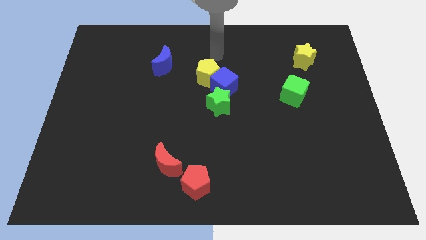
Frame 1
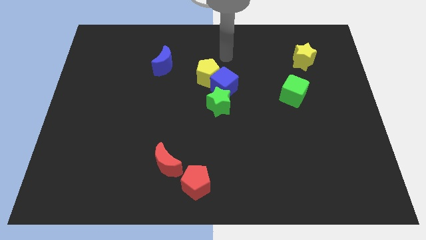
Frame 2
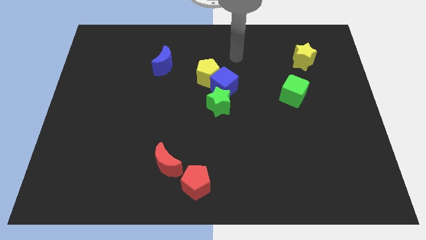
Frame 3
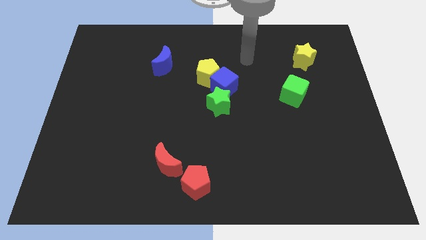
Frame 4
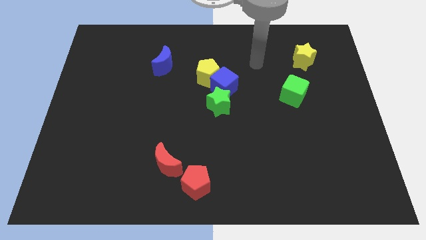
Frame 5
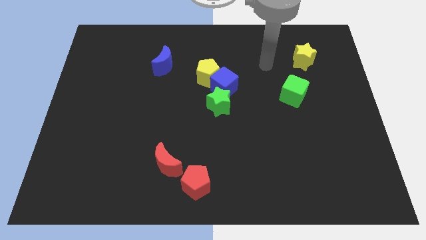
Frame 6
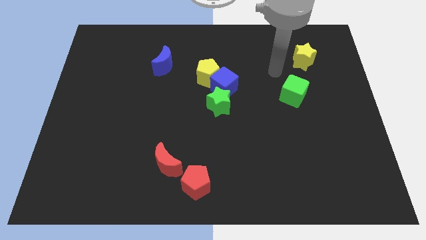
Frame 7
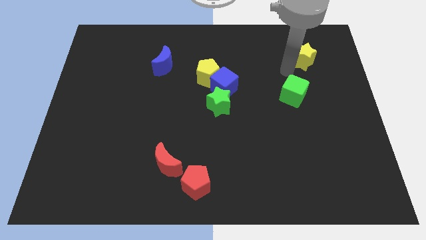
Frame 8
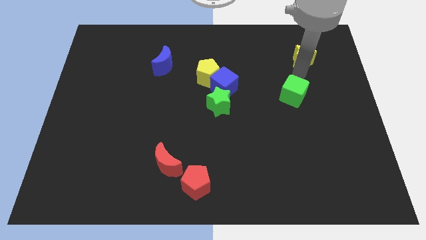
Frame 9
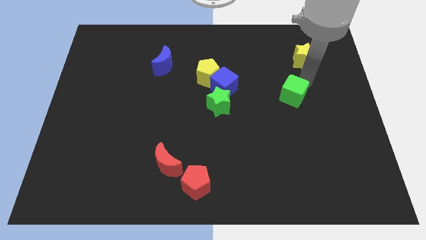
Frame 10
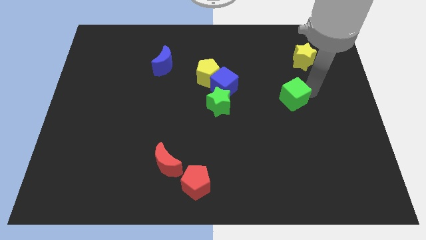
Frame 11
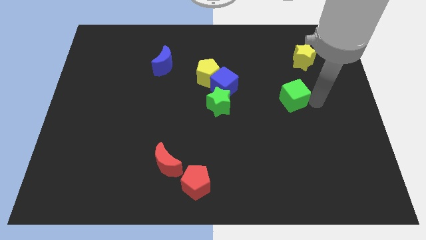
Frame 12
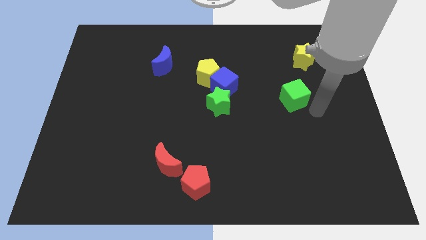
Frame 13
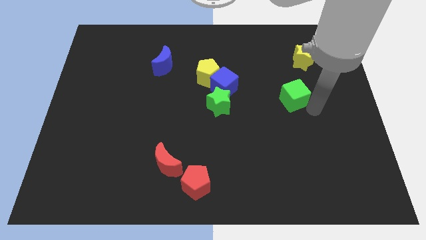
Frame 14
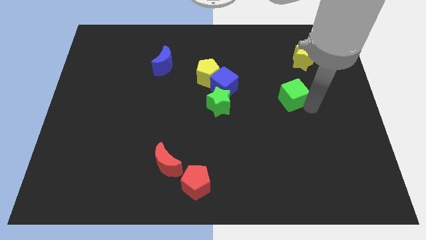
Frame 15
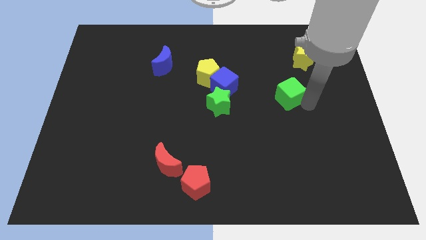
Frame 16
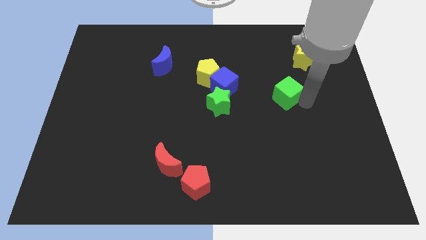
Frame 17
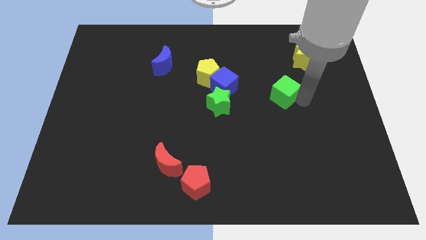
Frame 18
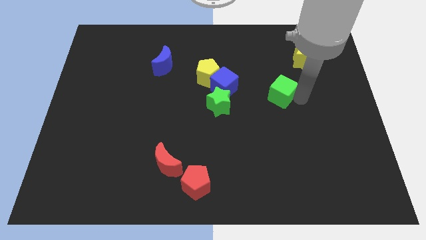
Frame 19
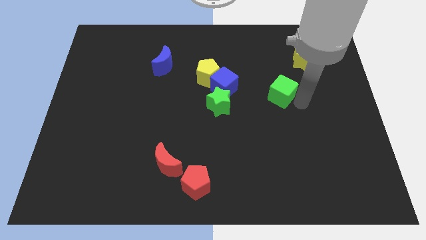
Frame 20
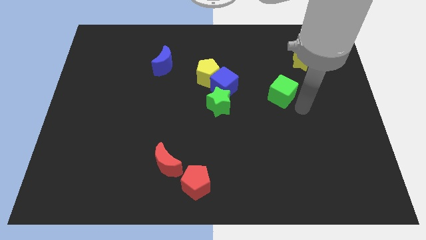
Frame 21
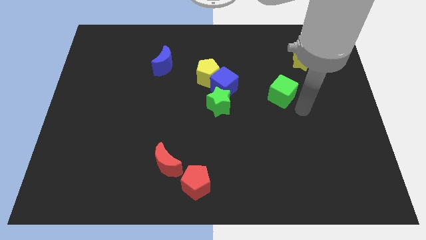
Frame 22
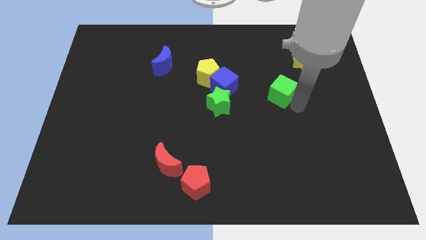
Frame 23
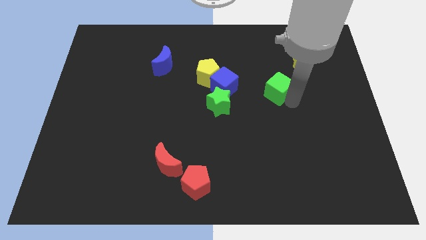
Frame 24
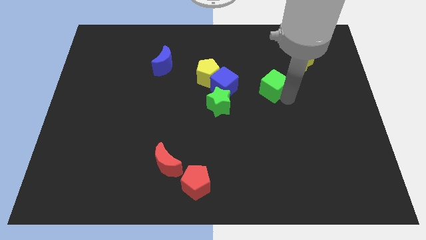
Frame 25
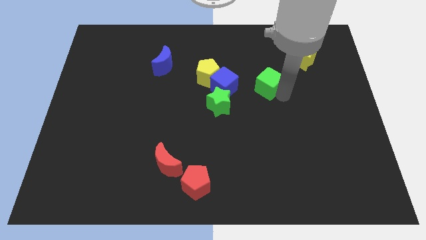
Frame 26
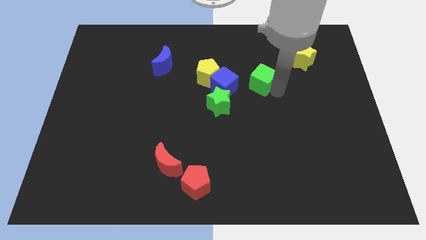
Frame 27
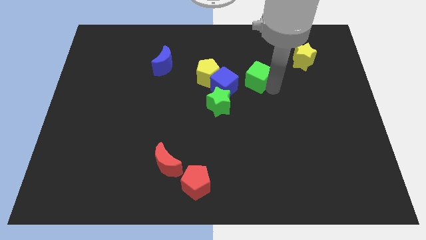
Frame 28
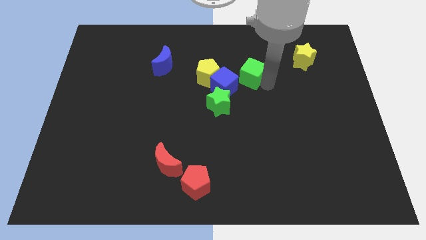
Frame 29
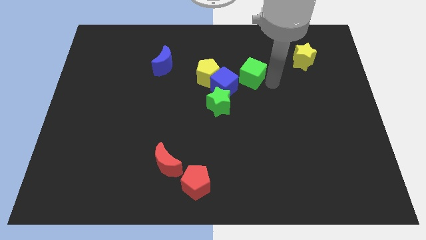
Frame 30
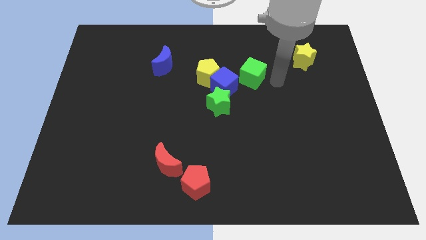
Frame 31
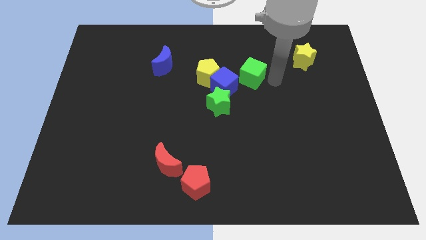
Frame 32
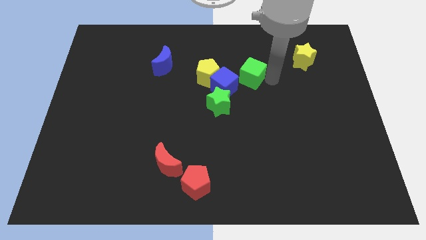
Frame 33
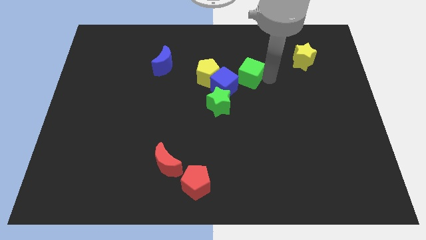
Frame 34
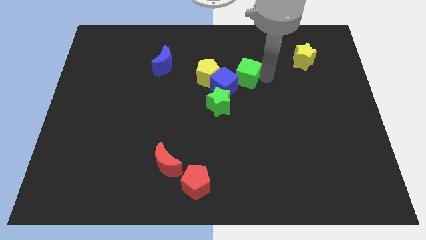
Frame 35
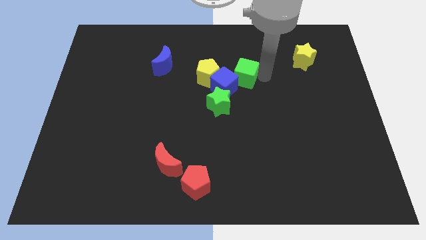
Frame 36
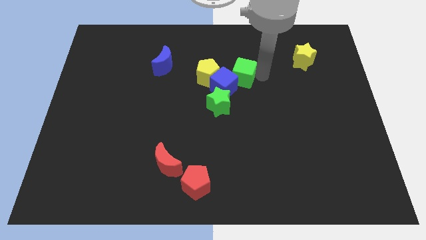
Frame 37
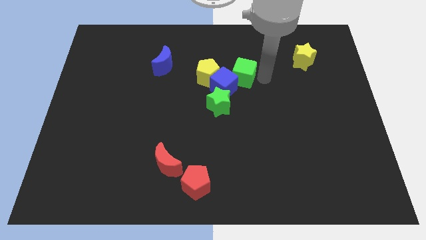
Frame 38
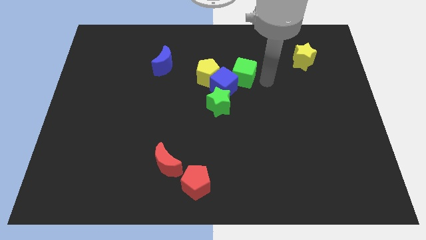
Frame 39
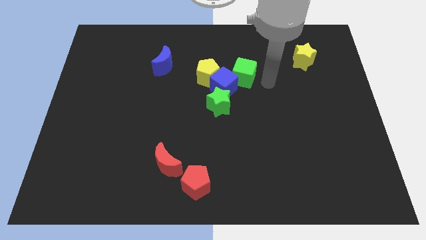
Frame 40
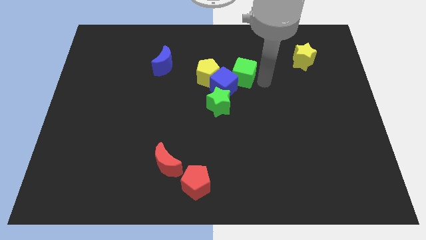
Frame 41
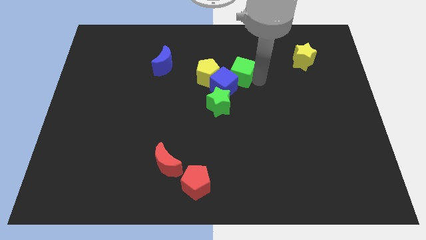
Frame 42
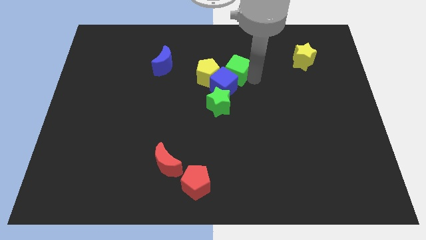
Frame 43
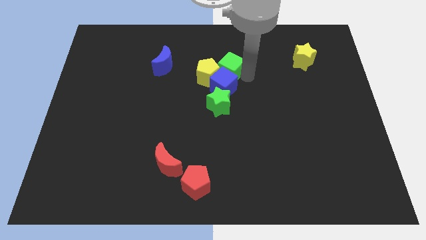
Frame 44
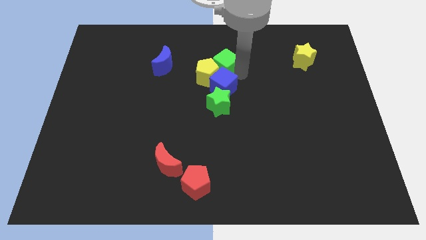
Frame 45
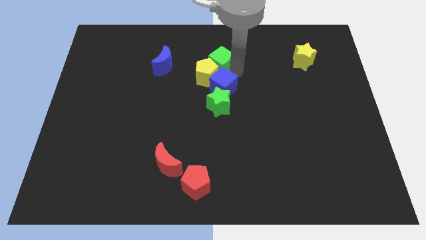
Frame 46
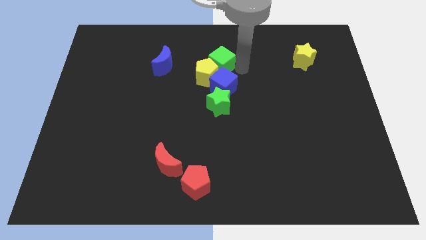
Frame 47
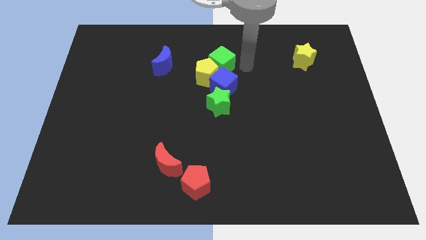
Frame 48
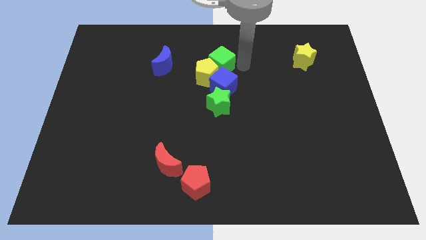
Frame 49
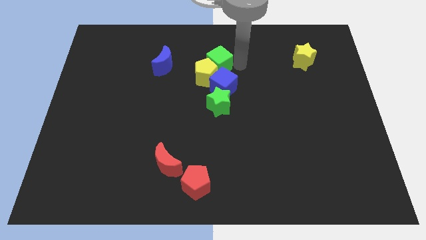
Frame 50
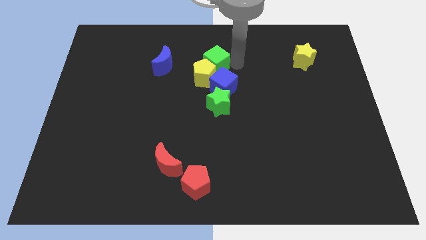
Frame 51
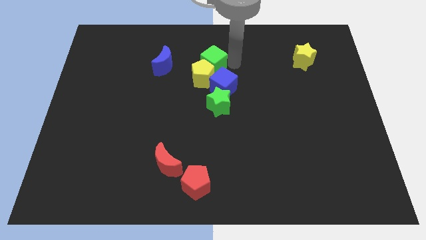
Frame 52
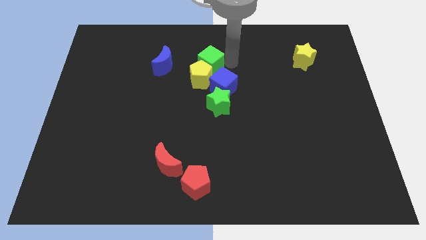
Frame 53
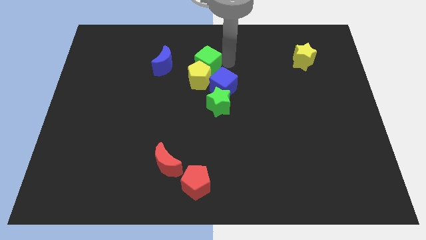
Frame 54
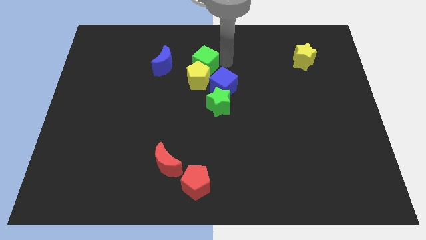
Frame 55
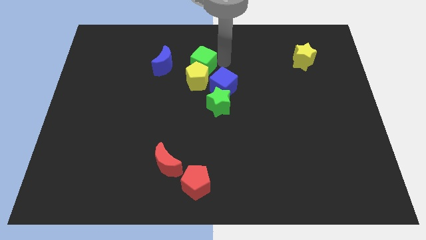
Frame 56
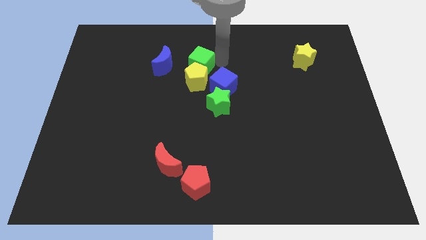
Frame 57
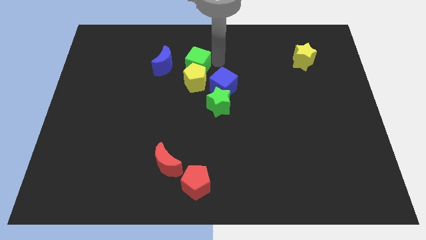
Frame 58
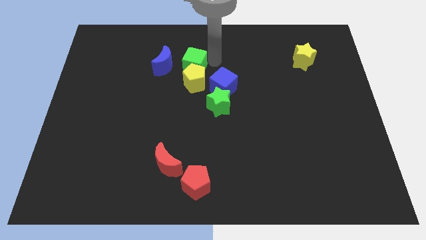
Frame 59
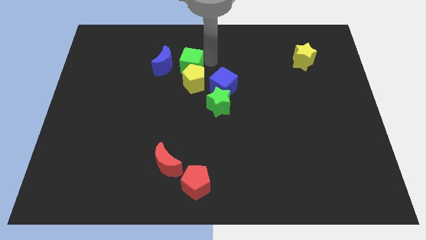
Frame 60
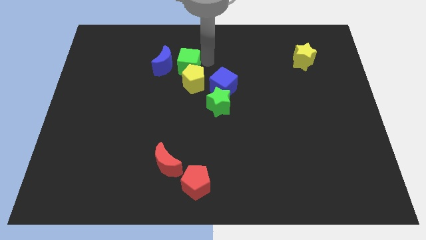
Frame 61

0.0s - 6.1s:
push the green cube next to the blue moon

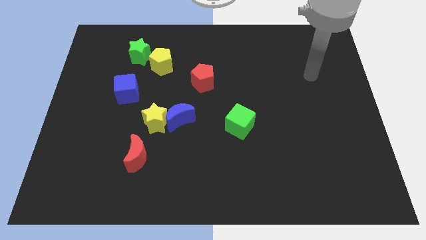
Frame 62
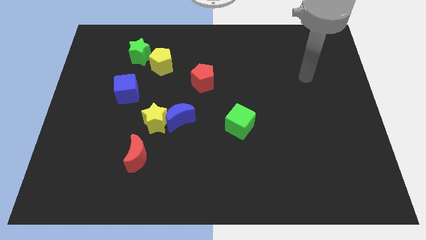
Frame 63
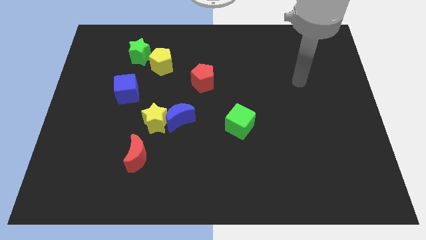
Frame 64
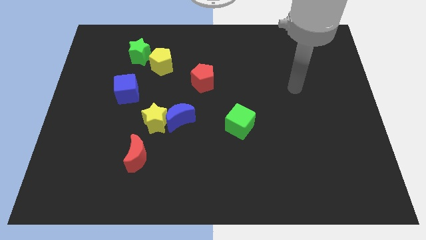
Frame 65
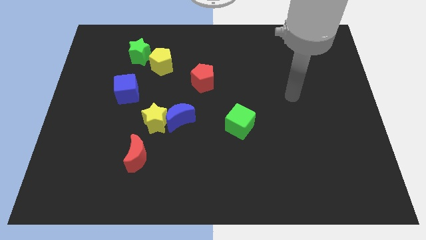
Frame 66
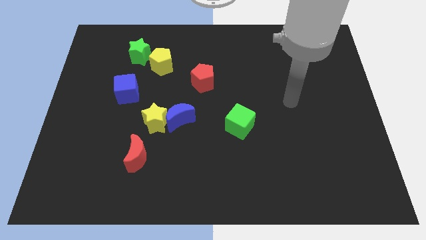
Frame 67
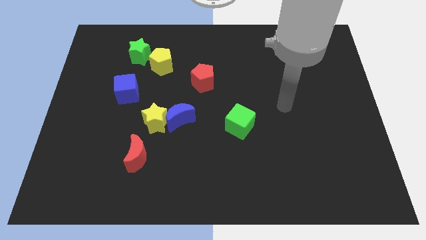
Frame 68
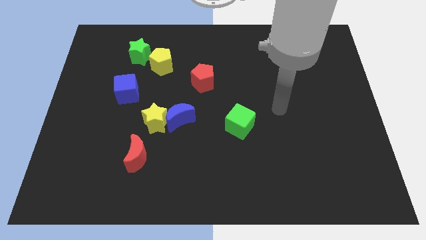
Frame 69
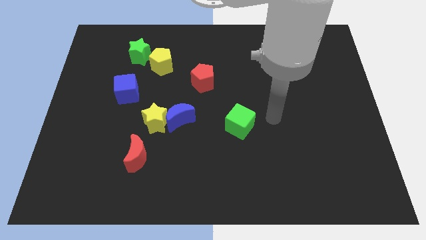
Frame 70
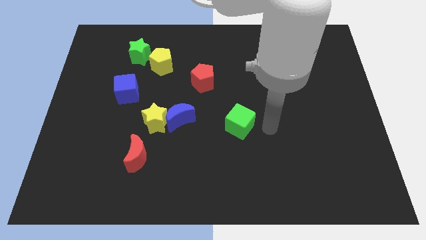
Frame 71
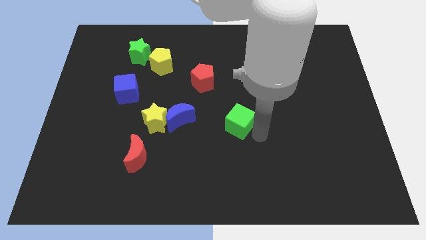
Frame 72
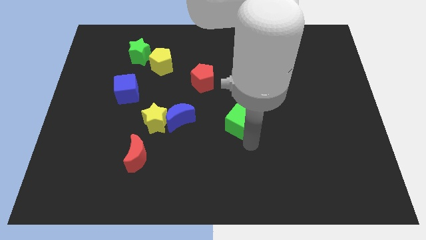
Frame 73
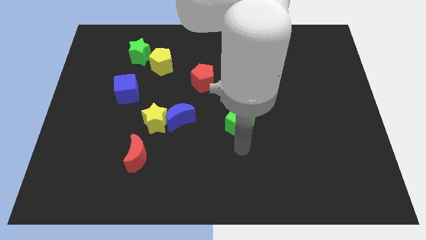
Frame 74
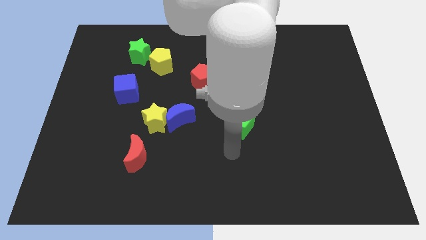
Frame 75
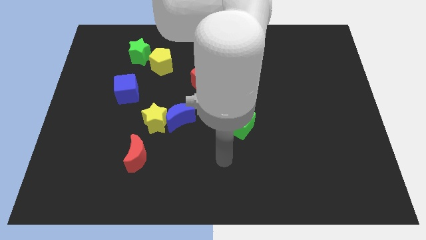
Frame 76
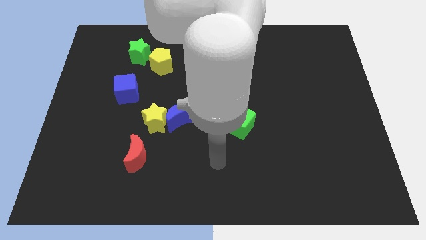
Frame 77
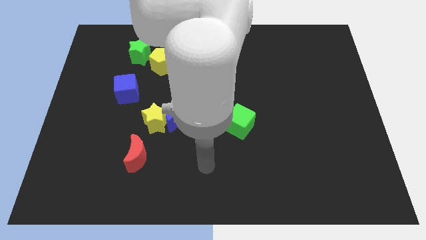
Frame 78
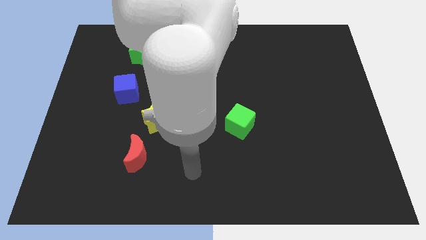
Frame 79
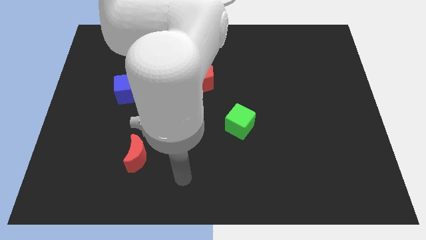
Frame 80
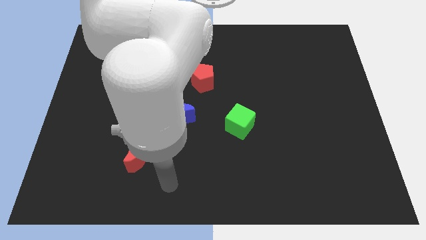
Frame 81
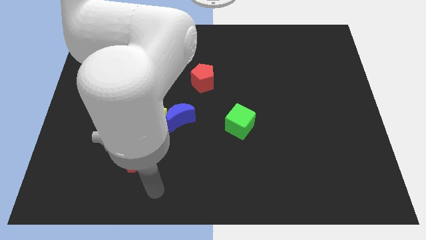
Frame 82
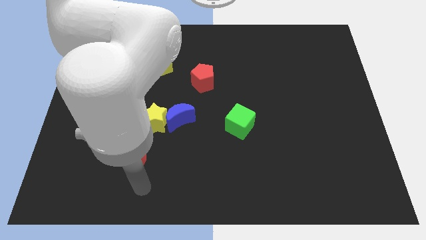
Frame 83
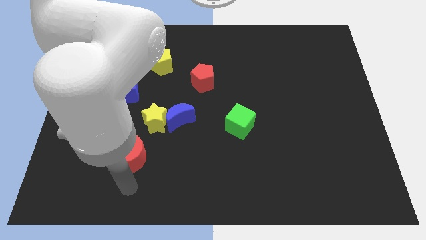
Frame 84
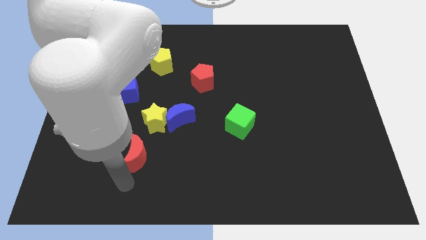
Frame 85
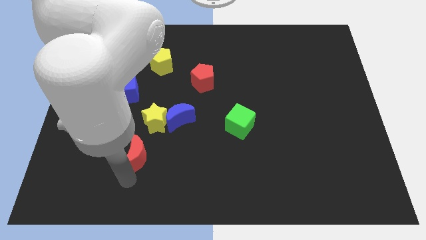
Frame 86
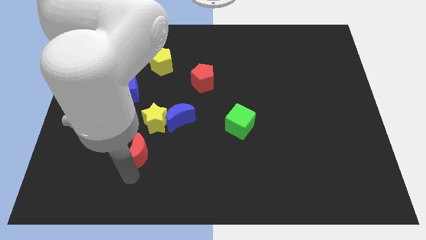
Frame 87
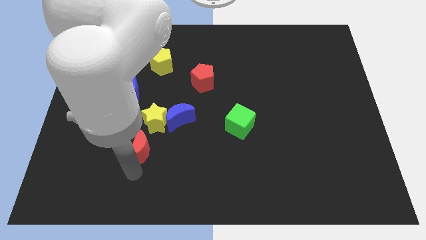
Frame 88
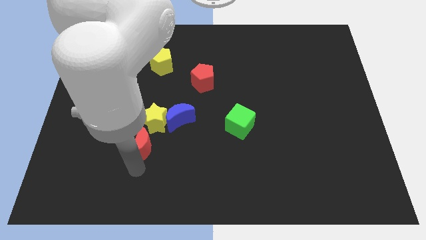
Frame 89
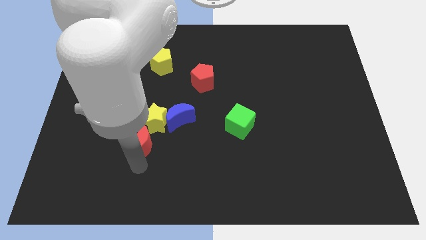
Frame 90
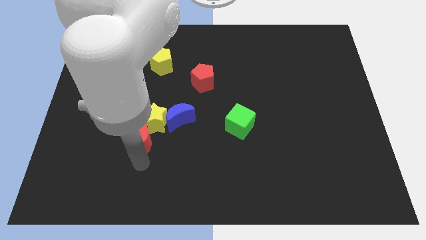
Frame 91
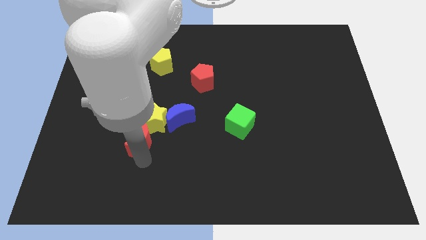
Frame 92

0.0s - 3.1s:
move the red moon next to the yellow star
